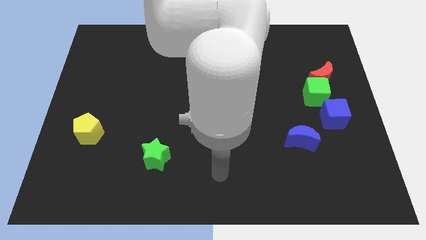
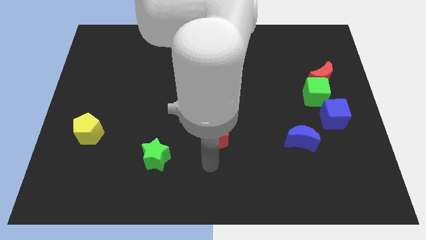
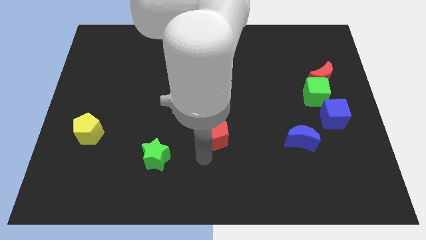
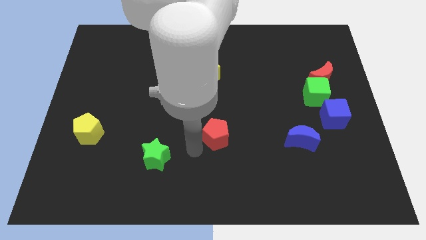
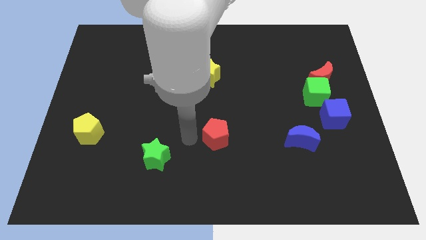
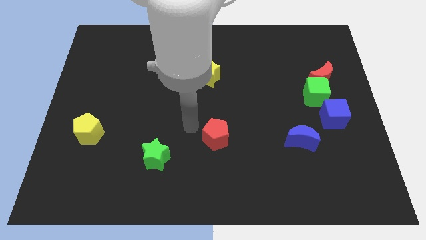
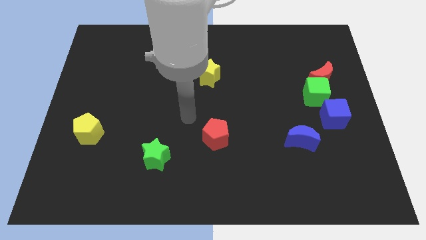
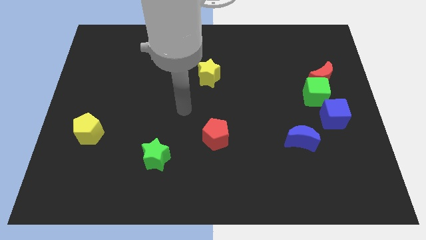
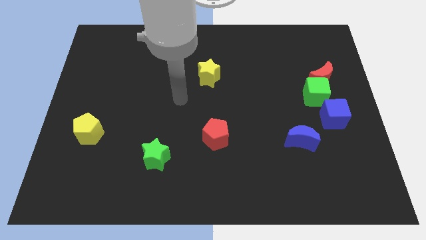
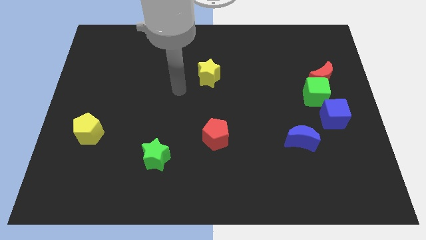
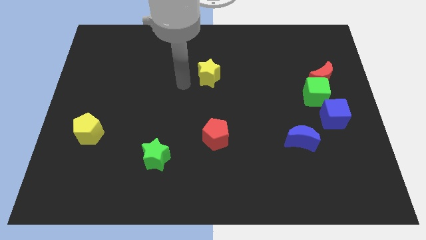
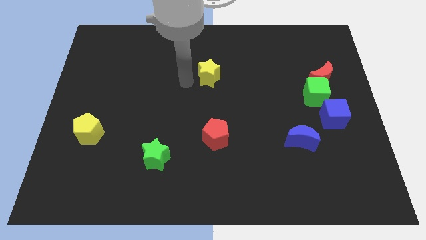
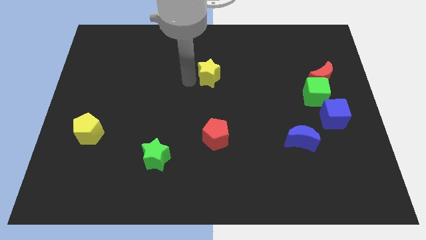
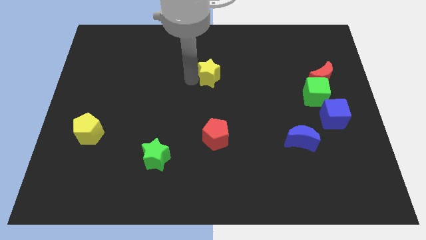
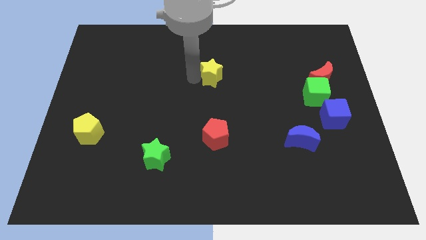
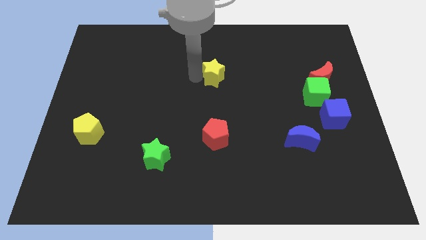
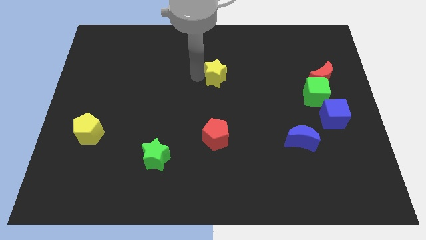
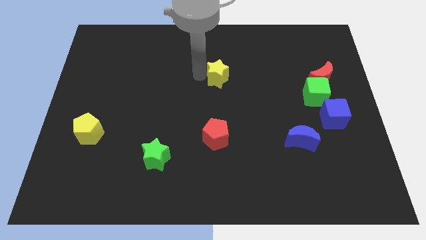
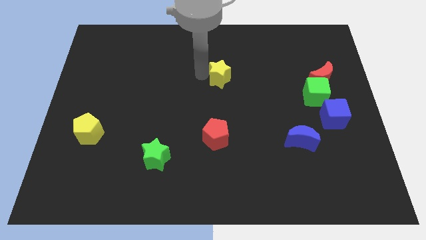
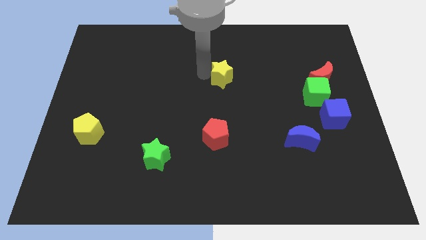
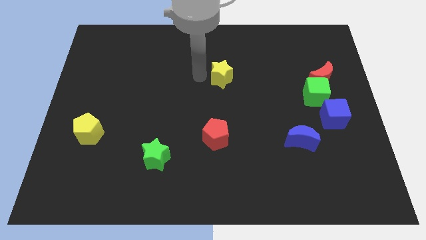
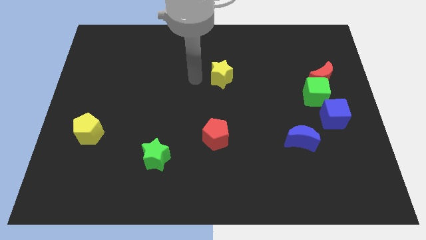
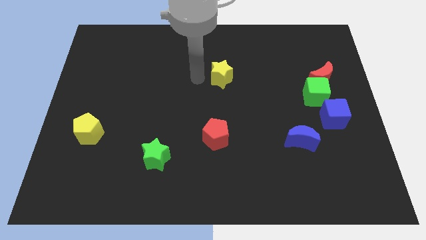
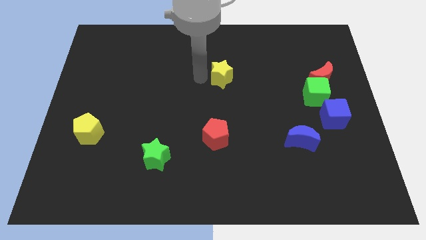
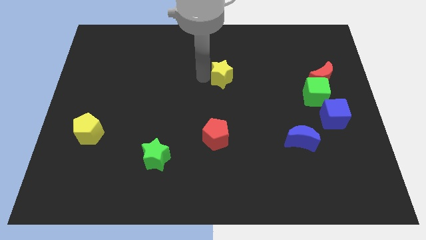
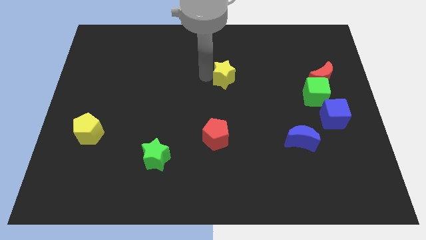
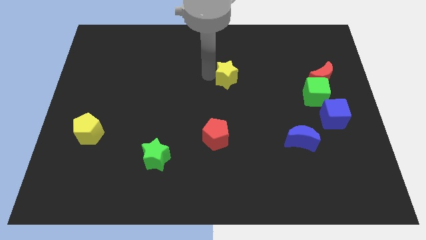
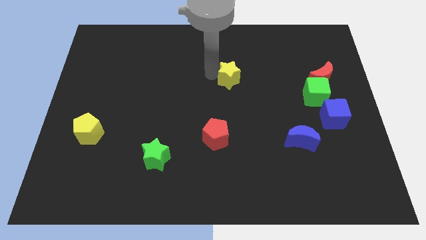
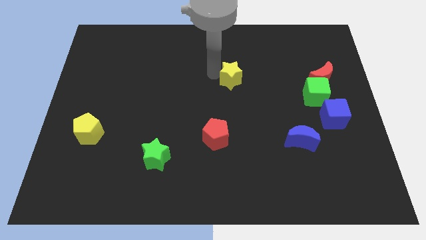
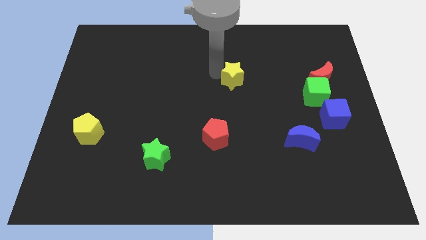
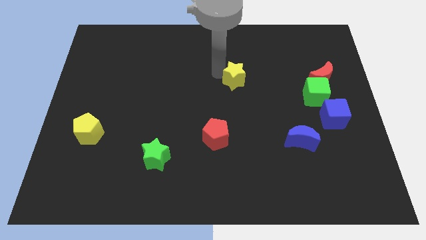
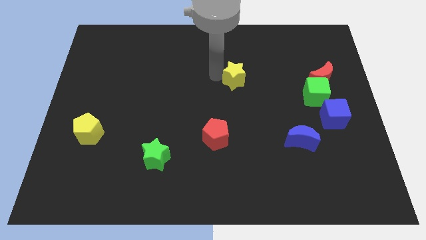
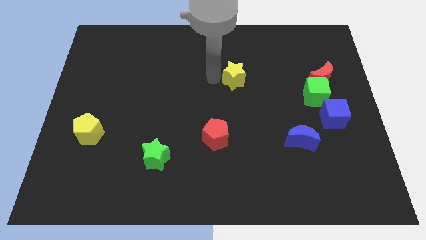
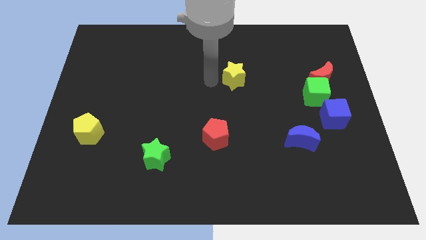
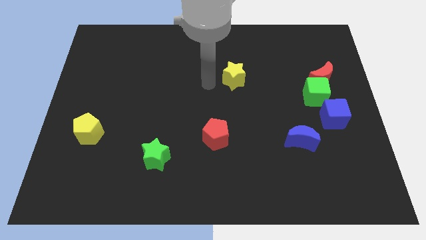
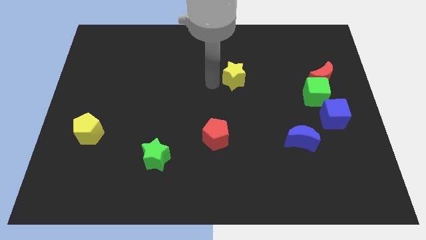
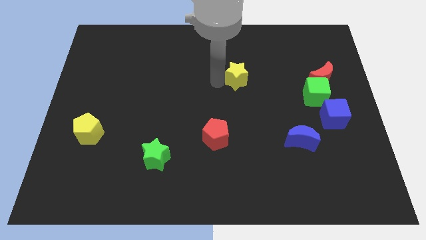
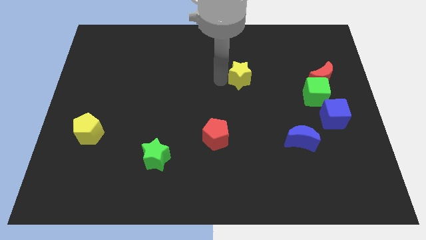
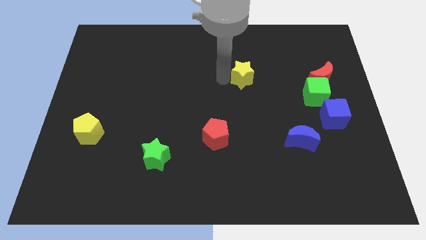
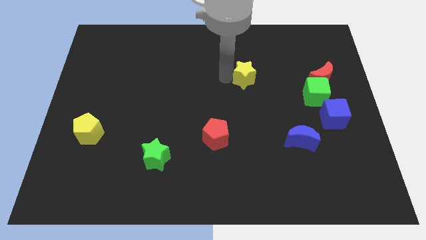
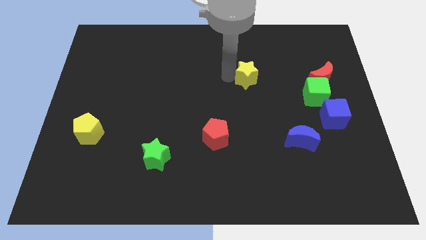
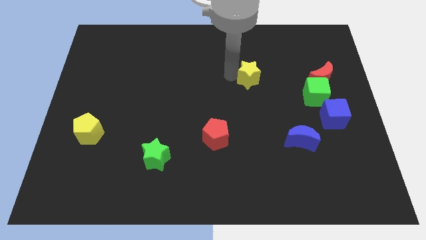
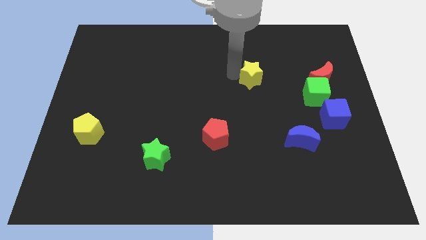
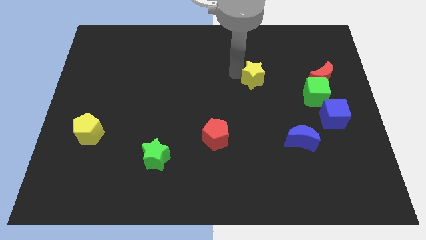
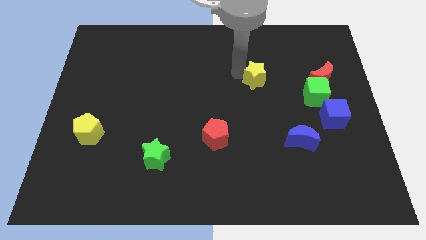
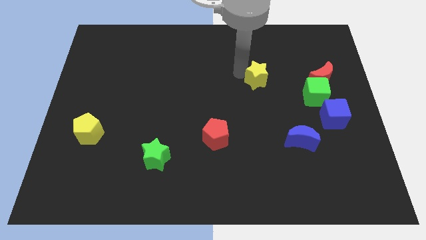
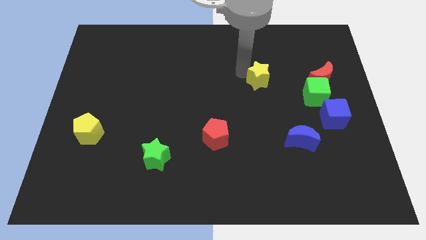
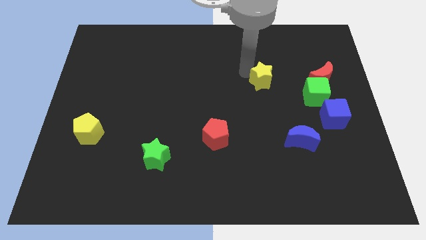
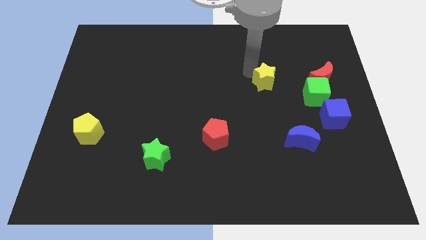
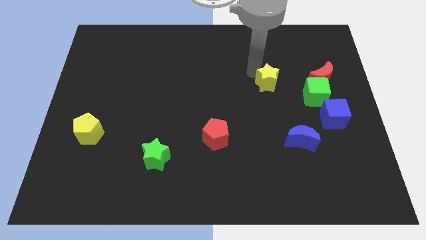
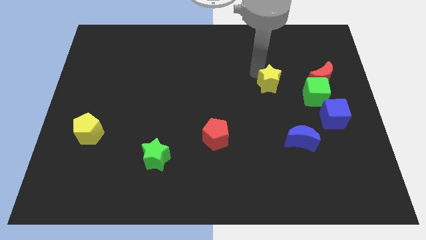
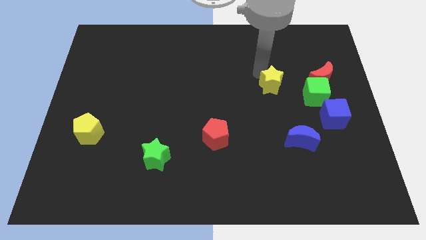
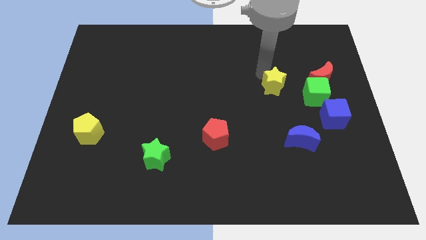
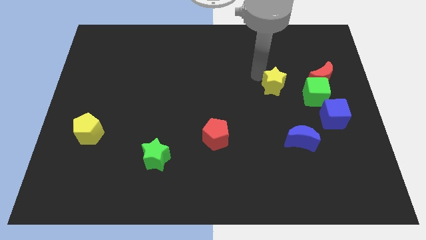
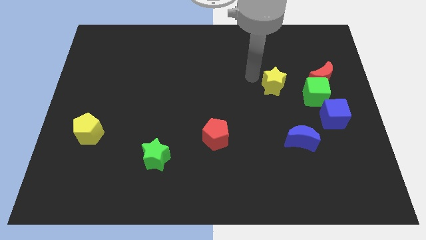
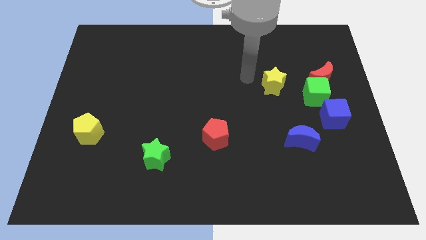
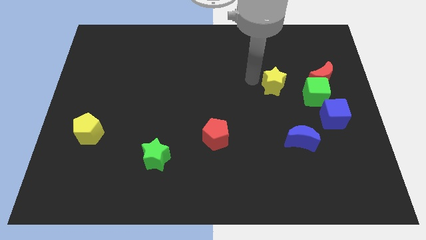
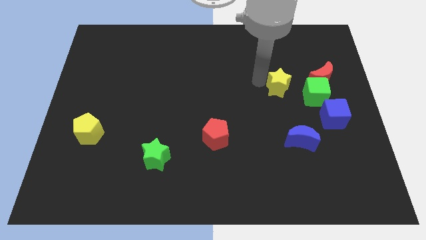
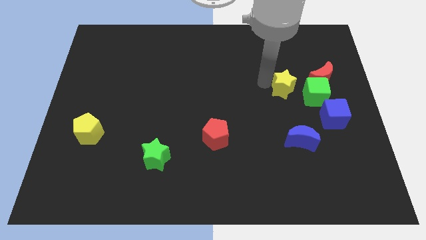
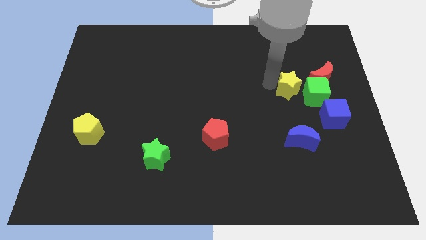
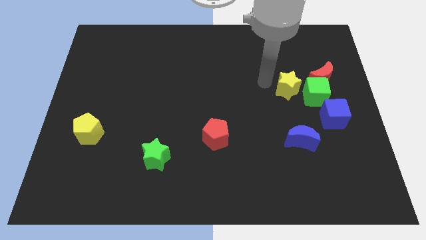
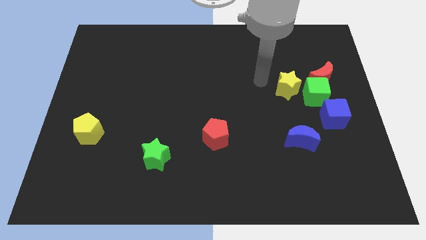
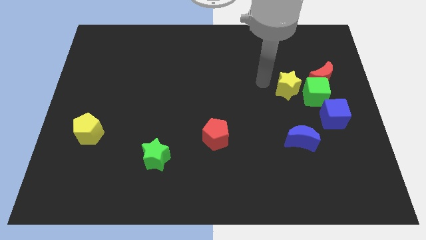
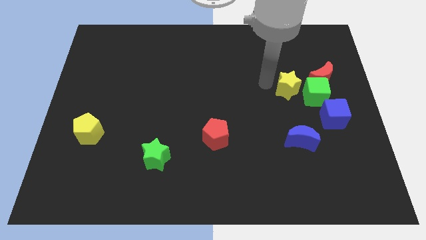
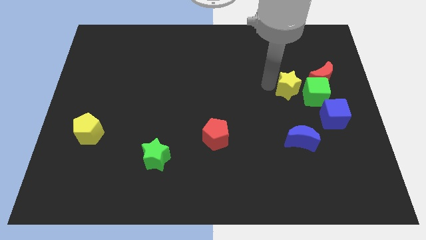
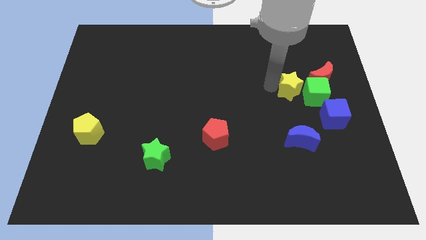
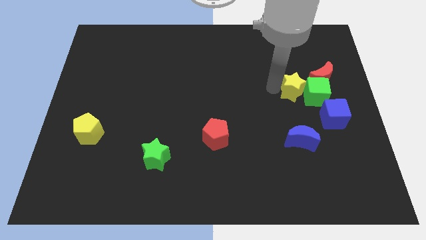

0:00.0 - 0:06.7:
slide the yellow star next to the green cube

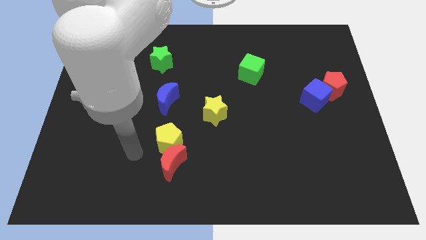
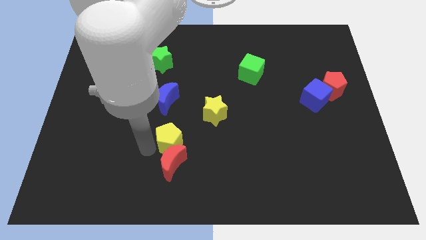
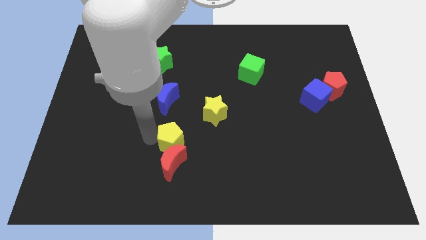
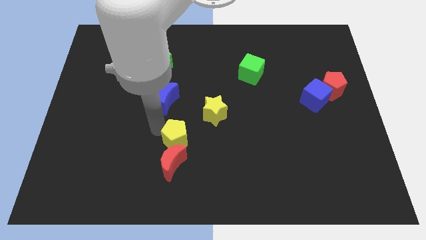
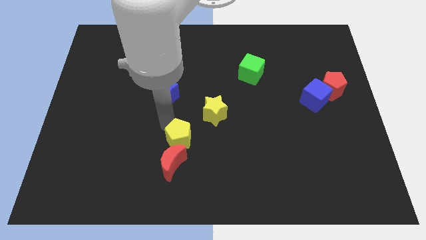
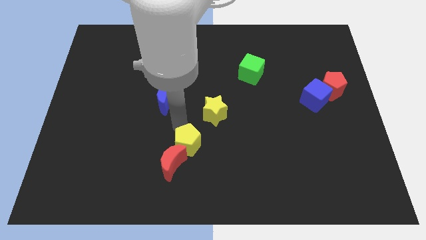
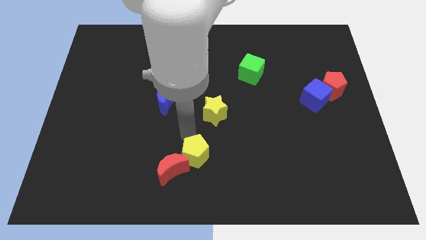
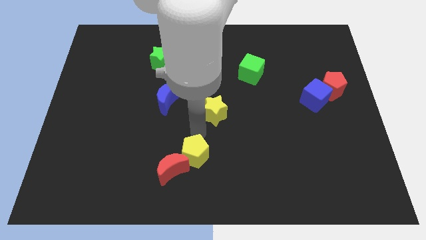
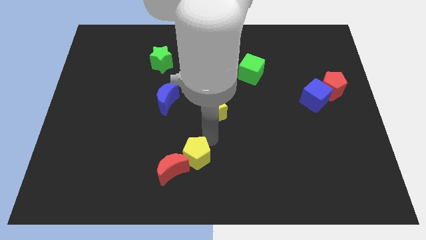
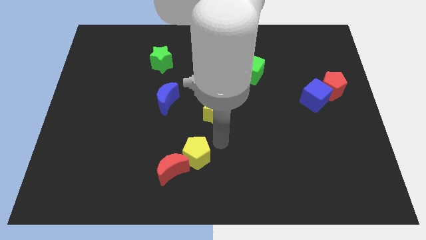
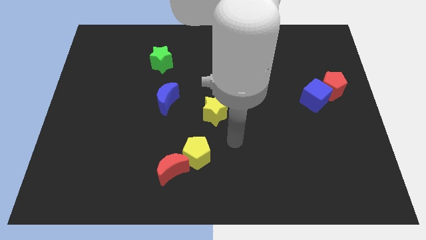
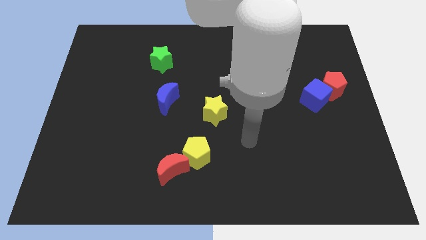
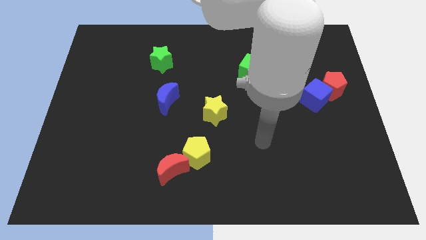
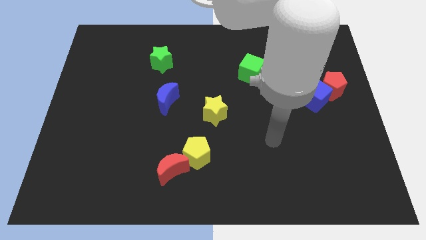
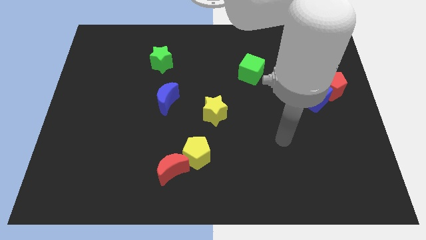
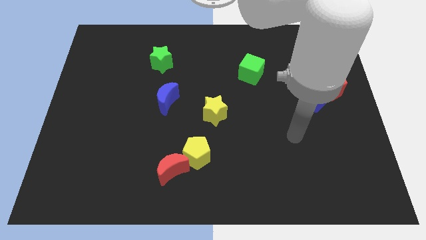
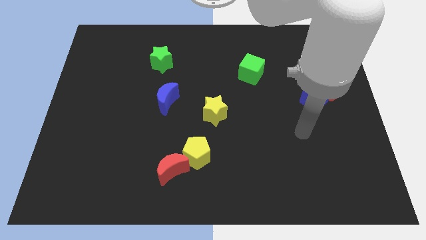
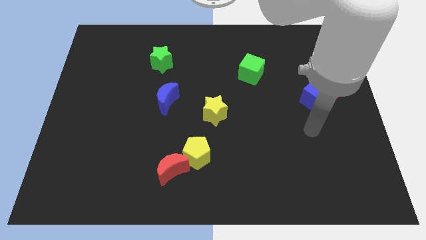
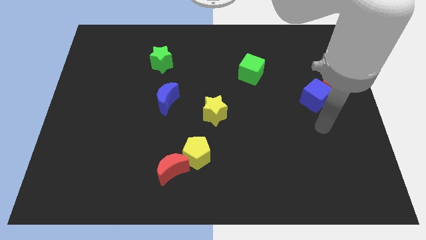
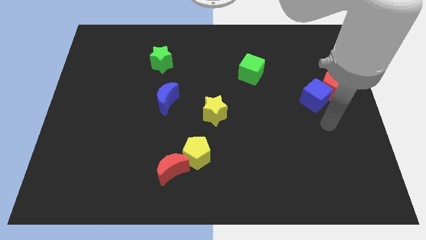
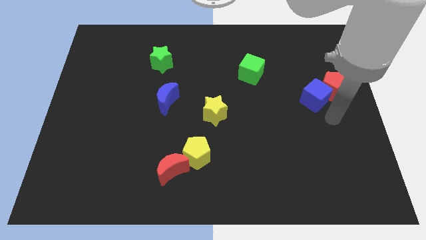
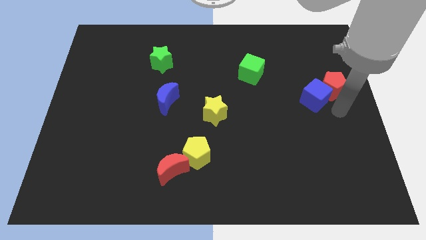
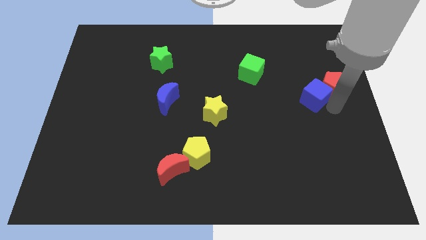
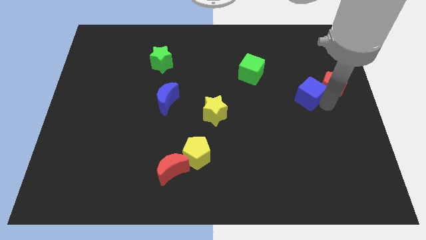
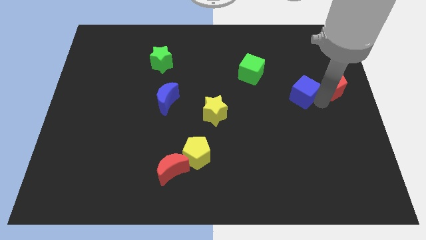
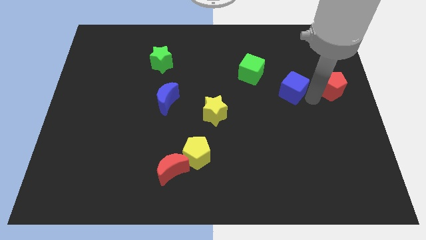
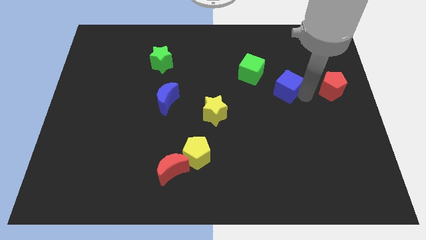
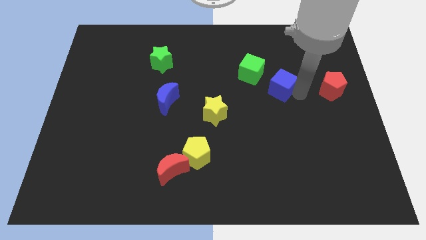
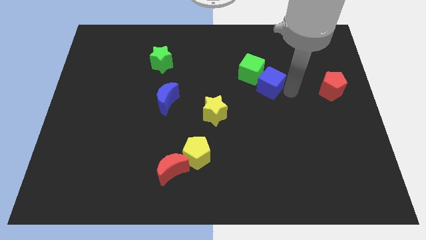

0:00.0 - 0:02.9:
put the blue cube towards the green cube
